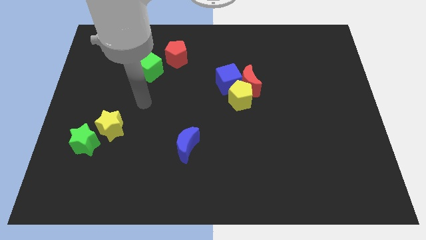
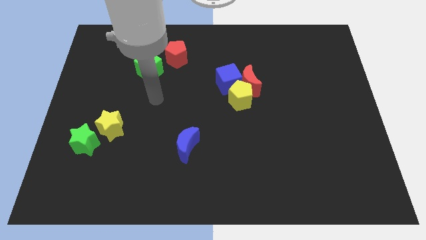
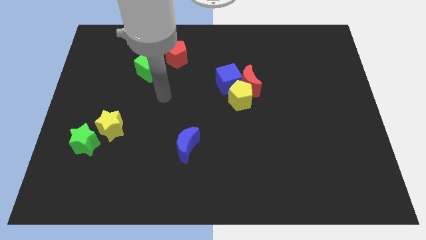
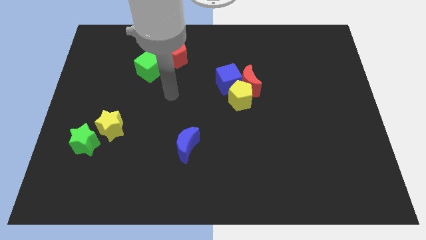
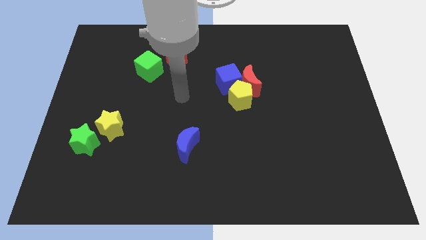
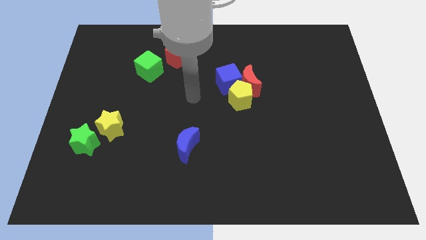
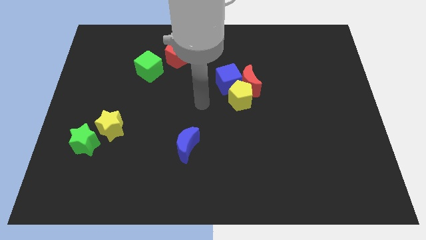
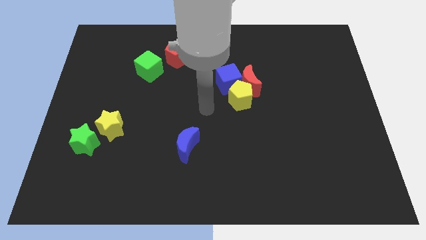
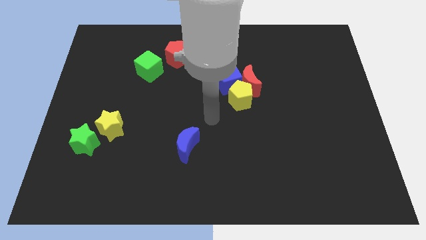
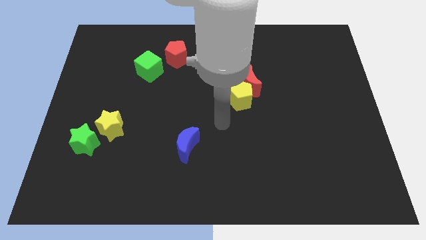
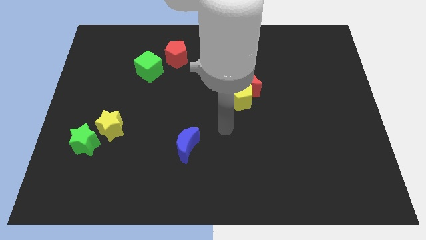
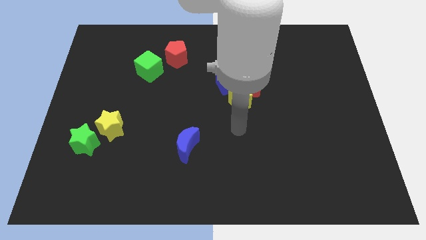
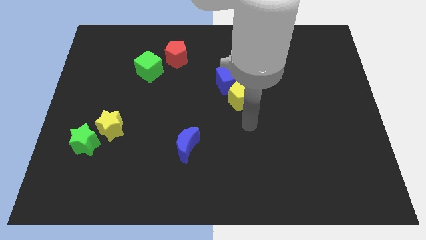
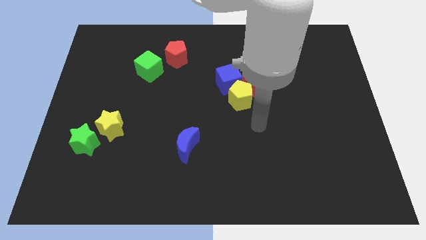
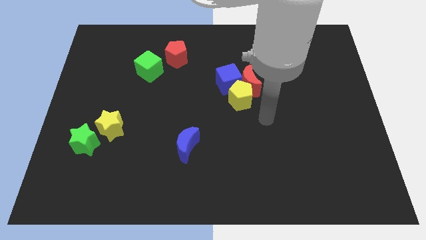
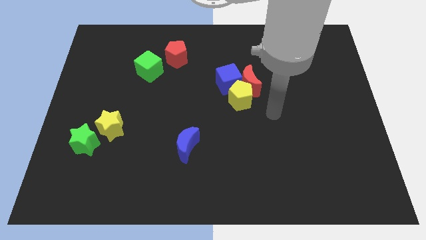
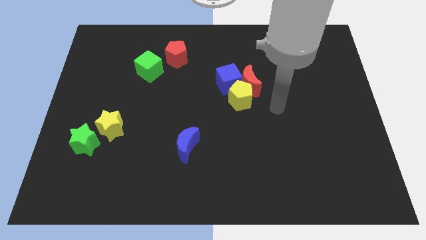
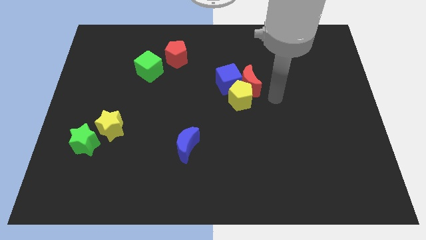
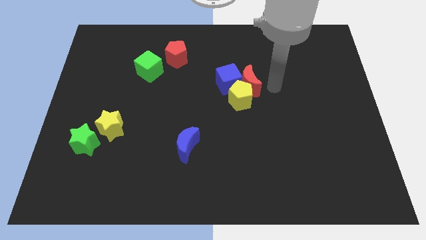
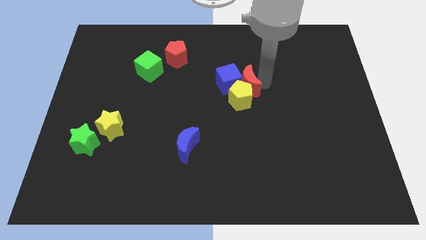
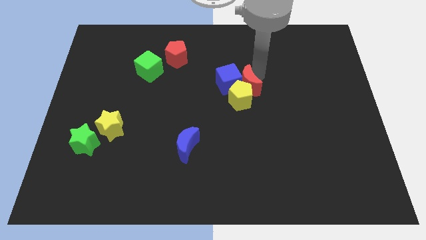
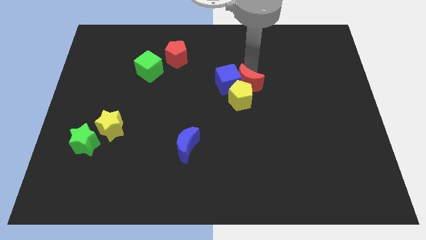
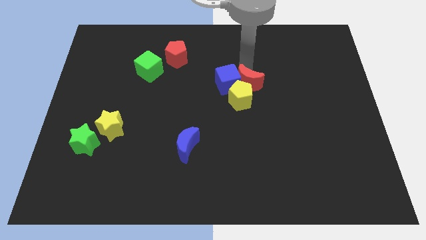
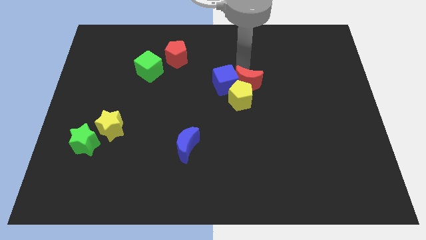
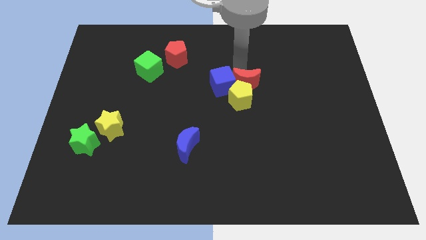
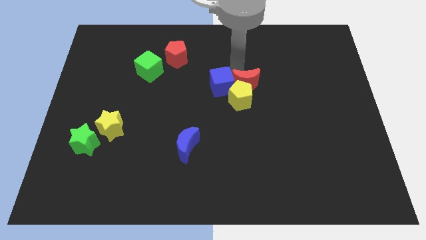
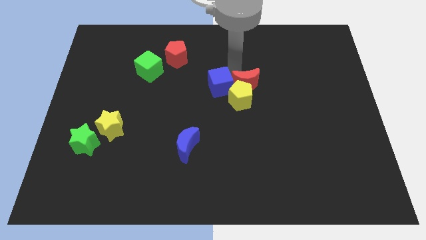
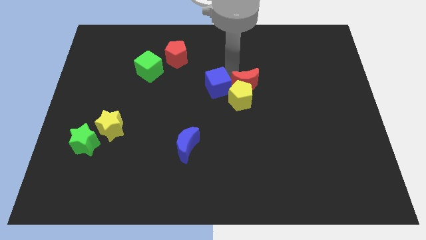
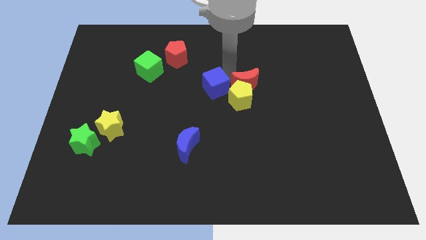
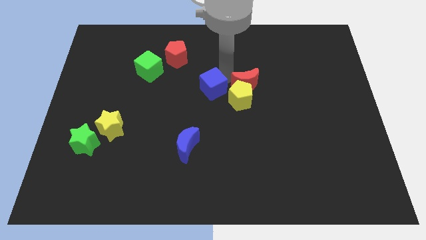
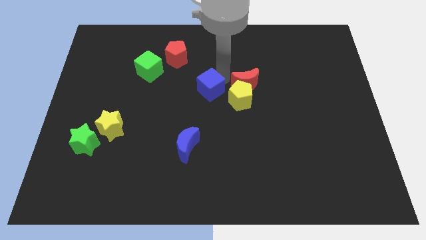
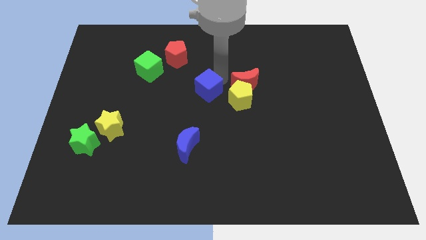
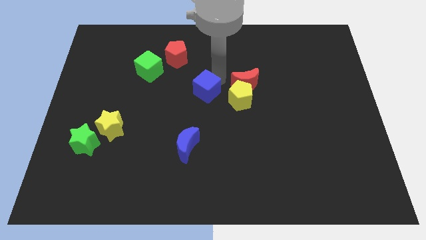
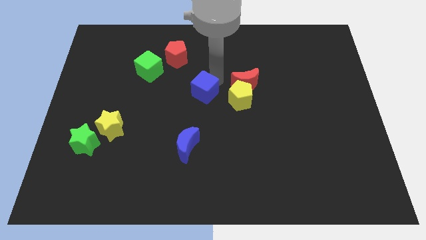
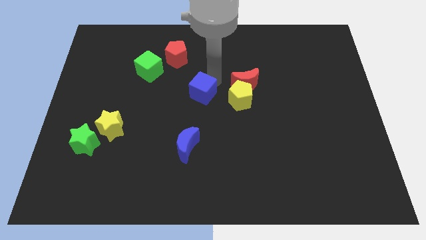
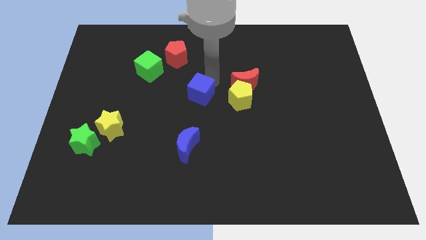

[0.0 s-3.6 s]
push the blue cube a little diagonally downwards and to the left

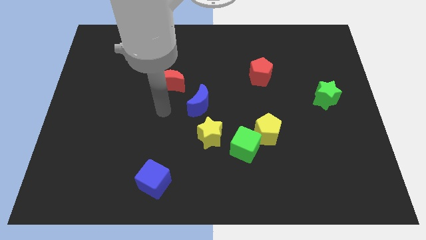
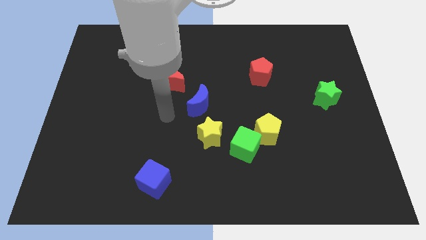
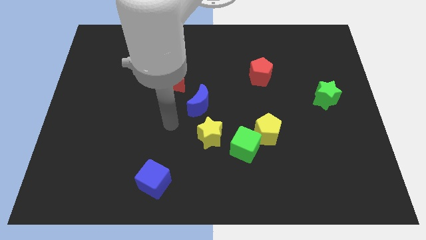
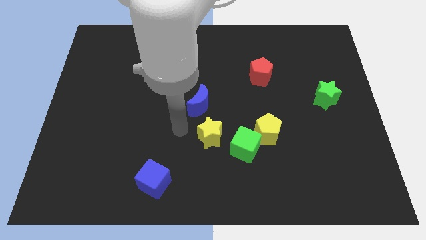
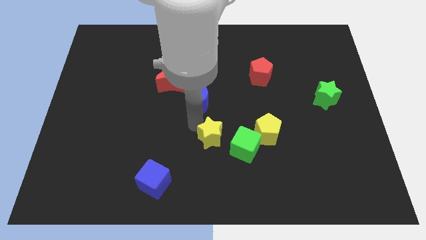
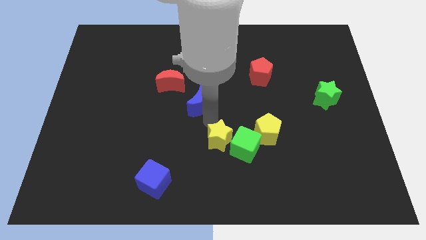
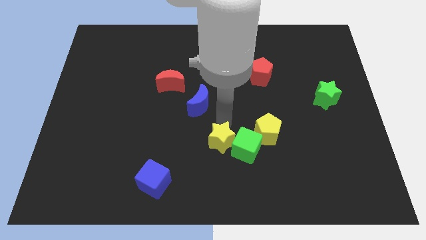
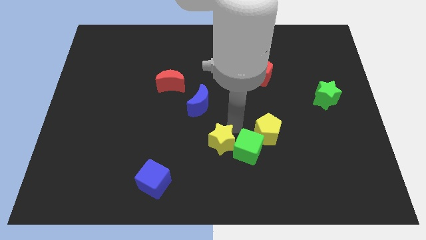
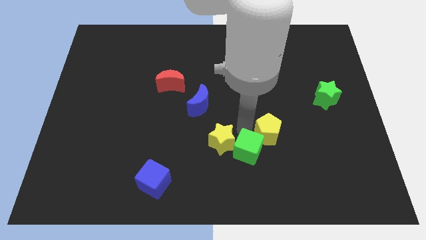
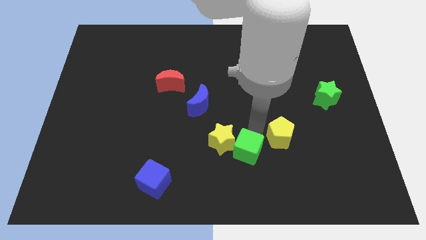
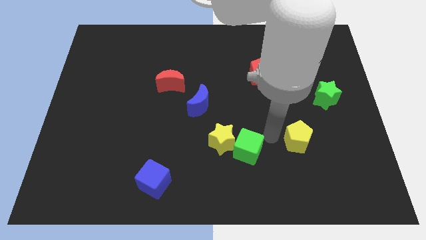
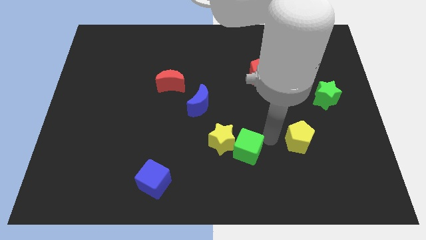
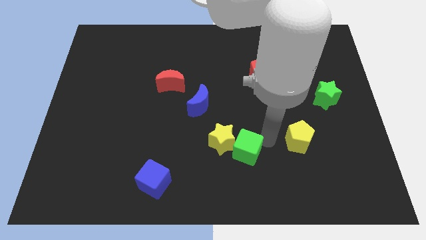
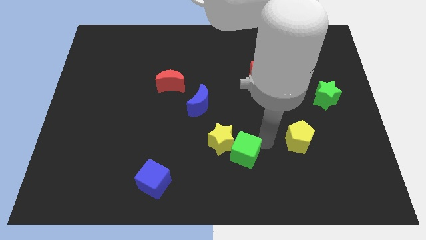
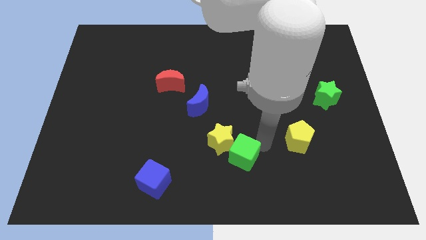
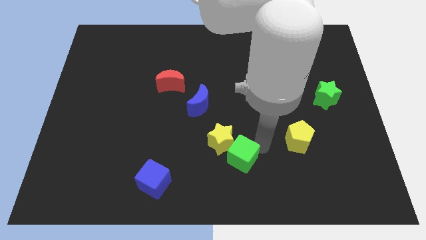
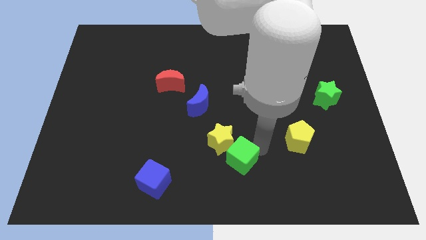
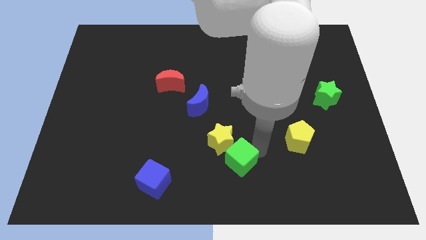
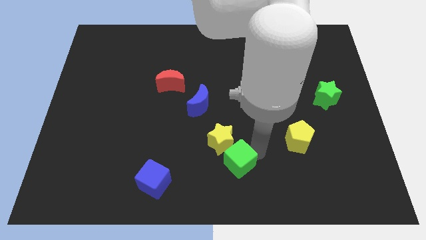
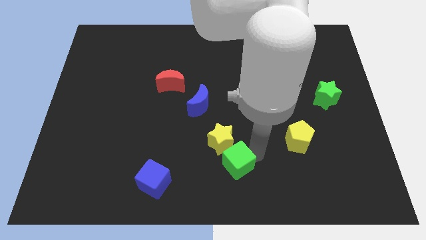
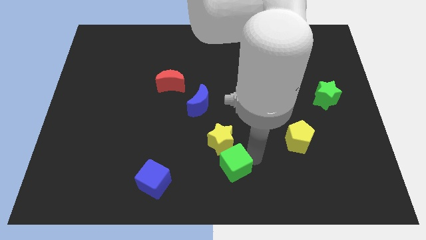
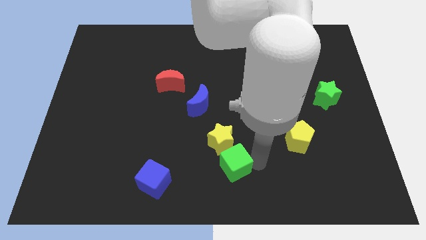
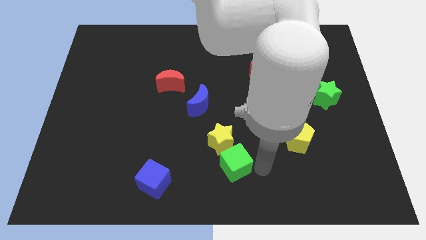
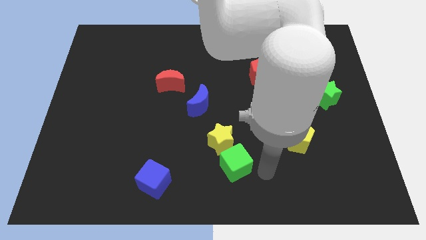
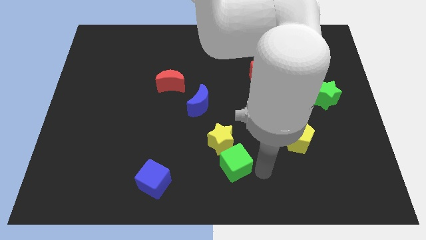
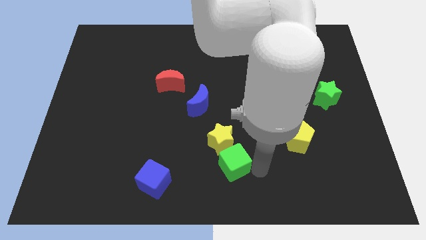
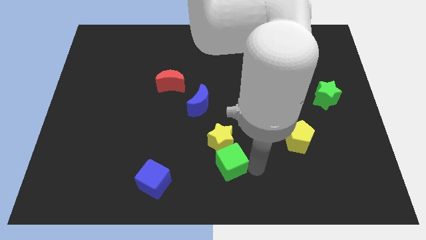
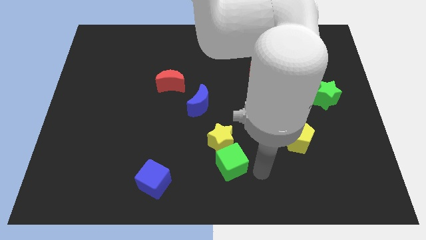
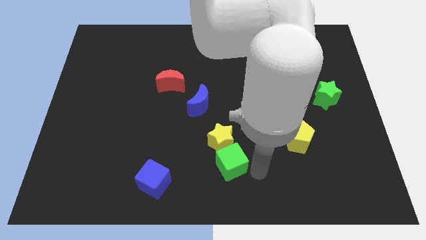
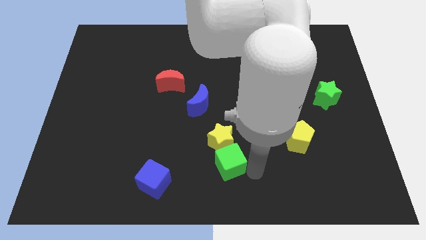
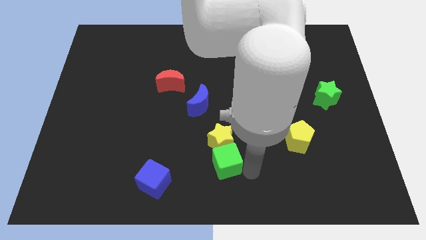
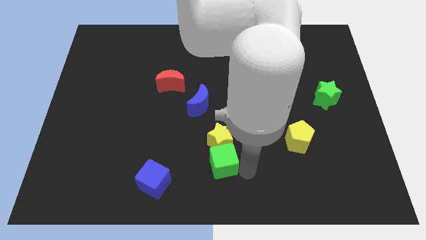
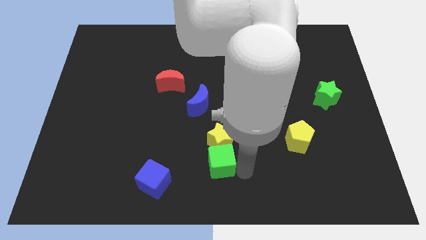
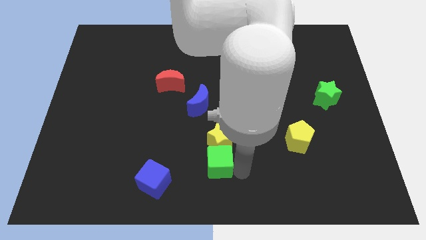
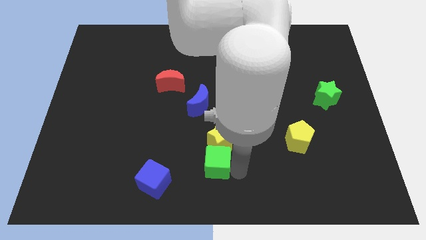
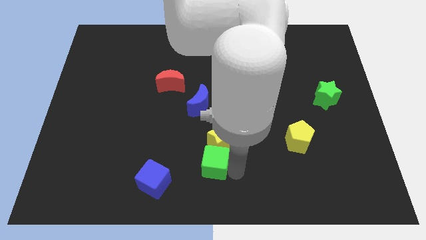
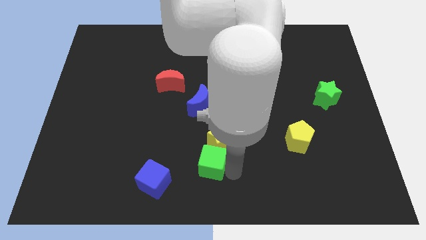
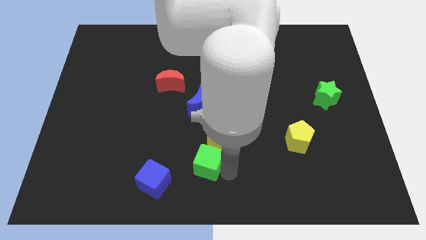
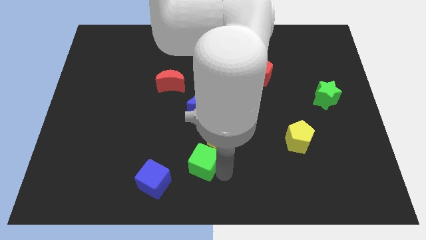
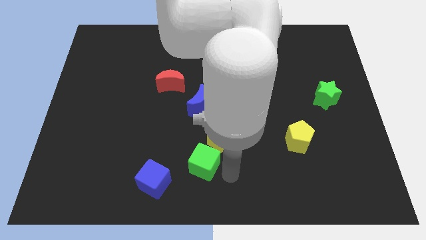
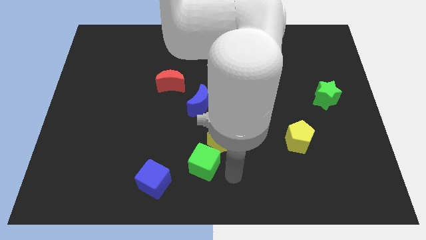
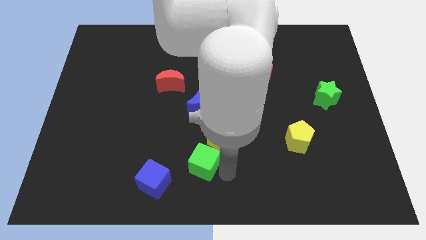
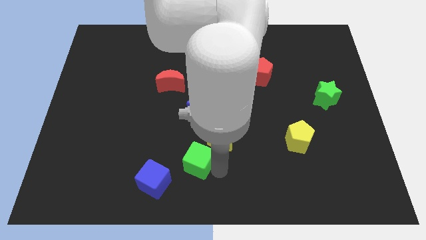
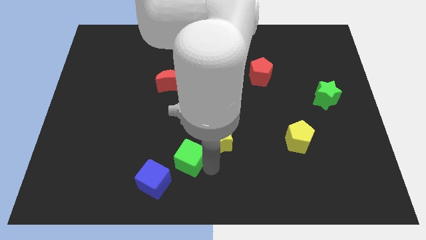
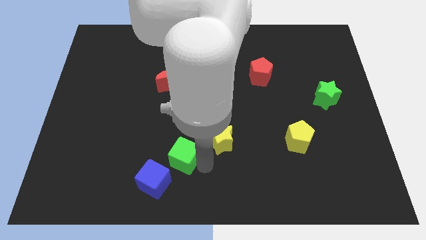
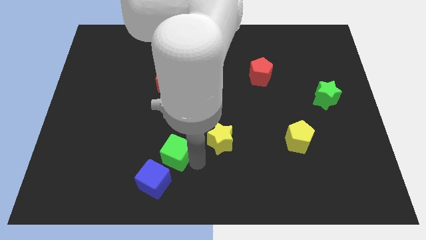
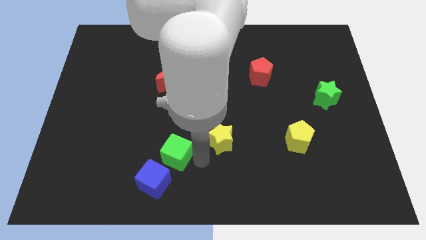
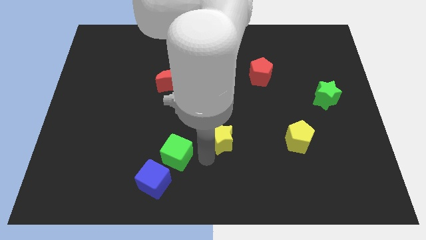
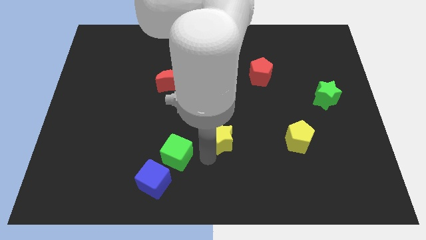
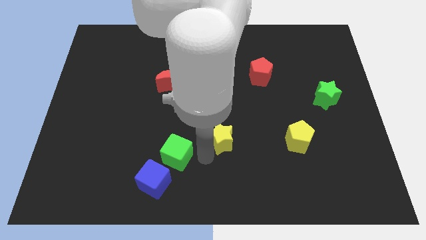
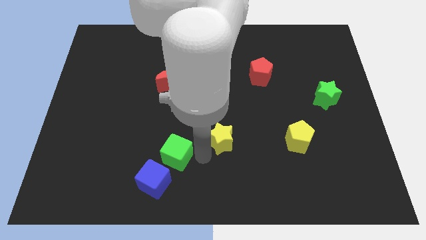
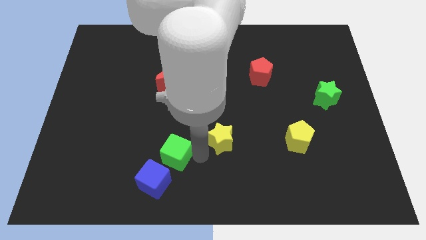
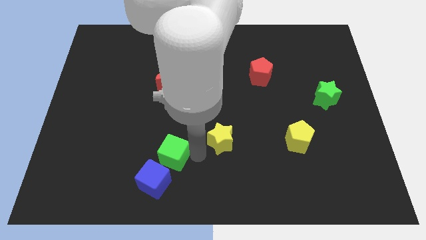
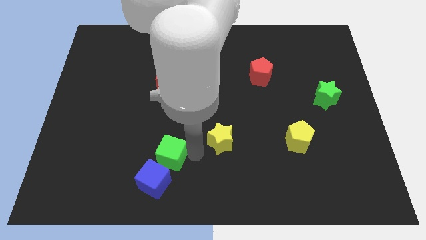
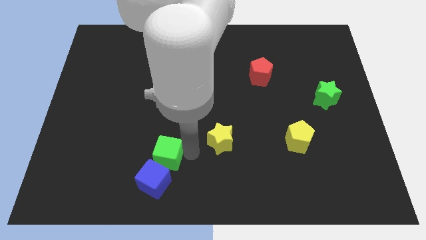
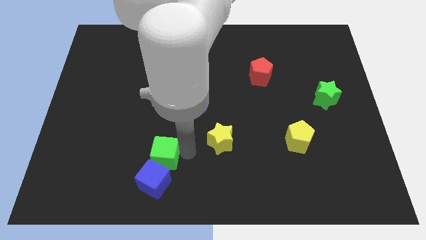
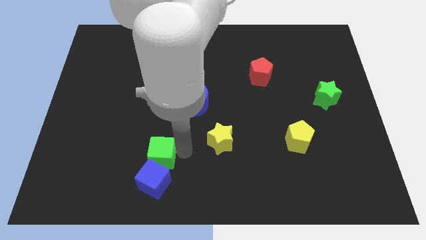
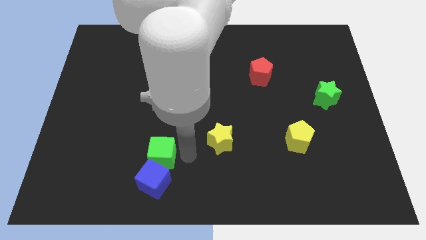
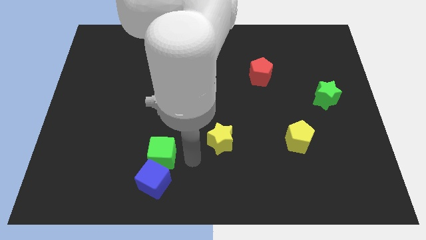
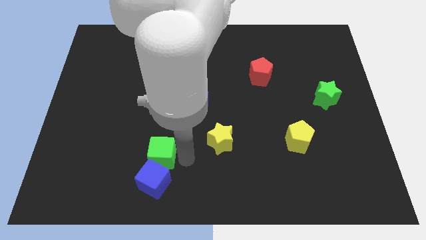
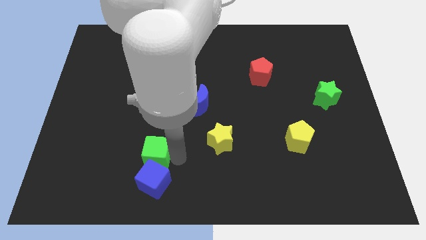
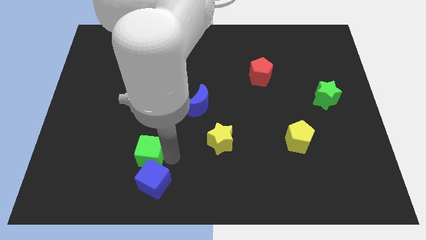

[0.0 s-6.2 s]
push the green cube left
